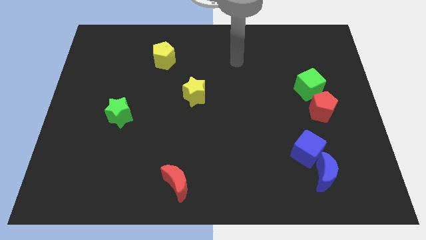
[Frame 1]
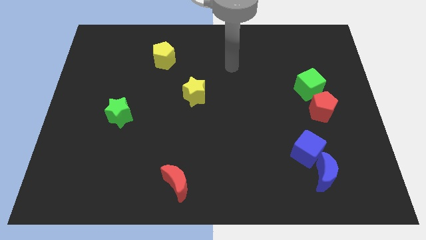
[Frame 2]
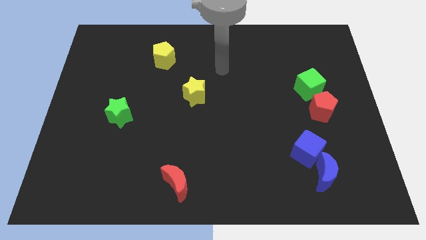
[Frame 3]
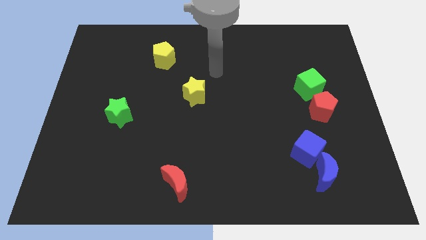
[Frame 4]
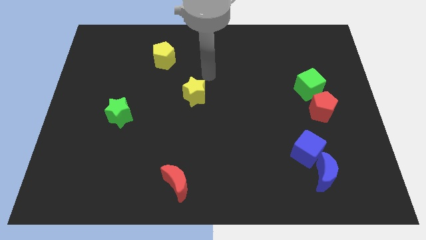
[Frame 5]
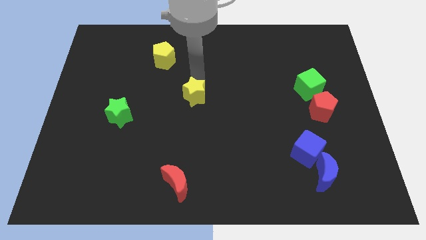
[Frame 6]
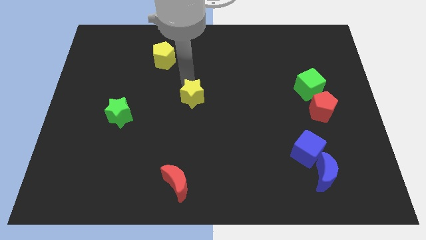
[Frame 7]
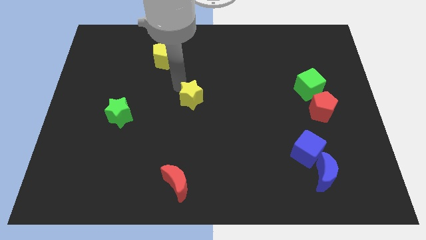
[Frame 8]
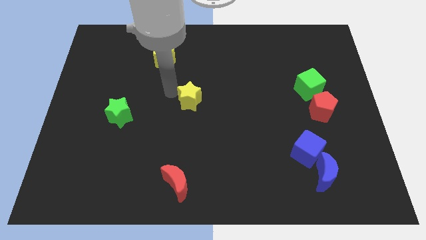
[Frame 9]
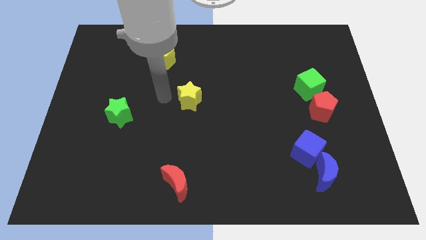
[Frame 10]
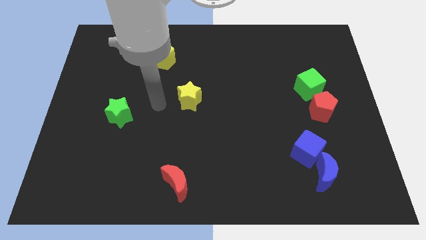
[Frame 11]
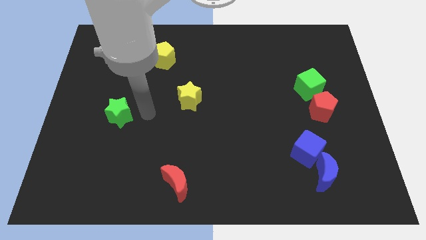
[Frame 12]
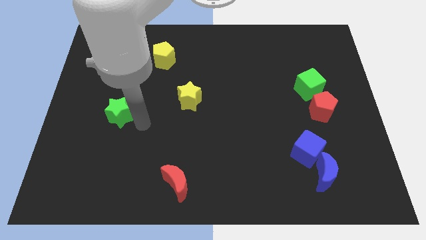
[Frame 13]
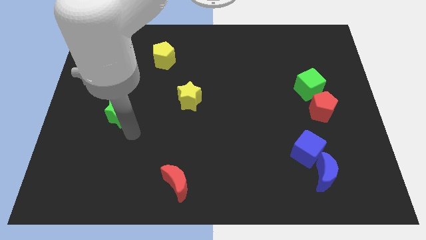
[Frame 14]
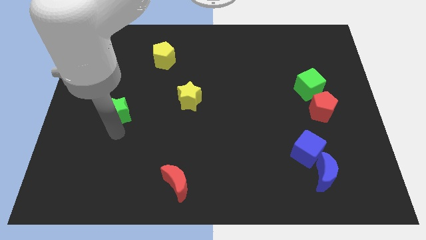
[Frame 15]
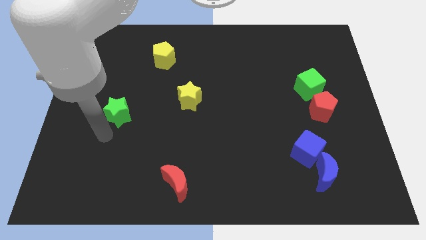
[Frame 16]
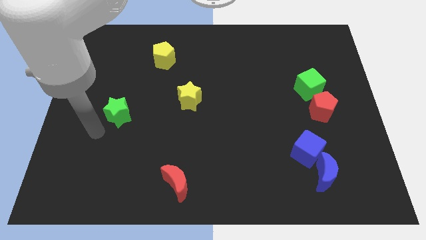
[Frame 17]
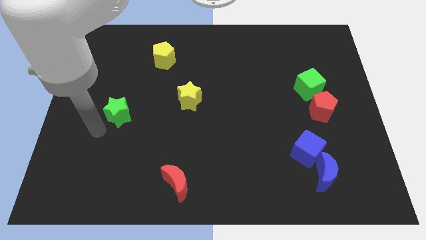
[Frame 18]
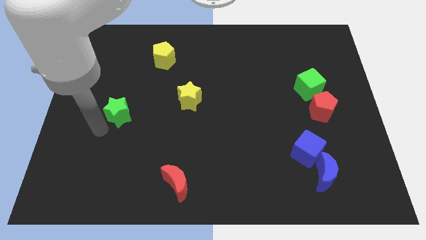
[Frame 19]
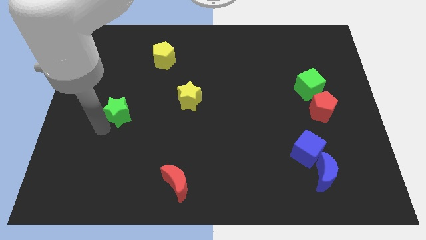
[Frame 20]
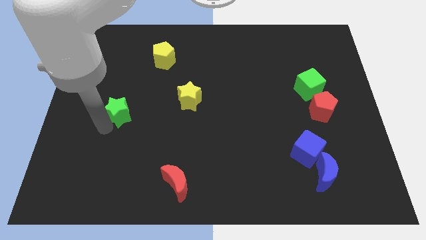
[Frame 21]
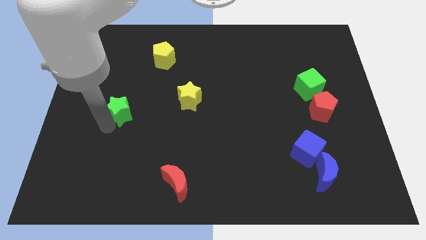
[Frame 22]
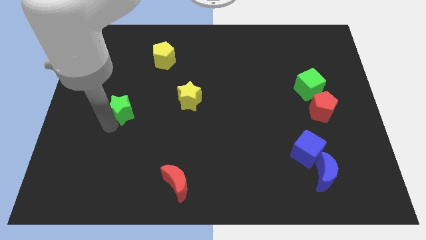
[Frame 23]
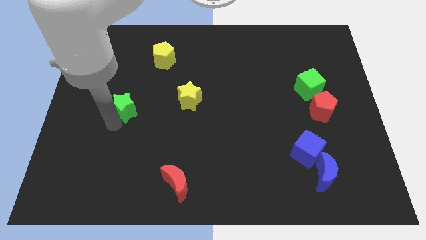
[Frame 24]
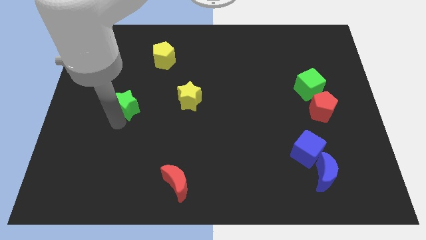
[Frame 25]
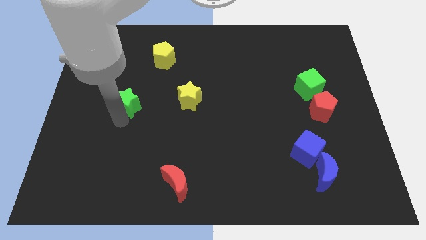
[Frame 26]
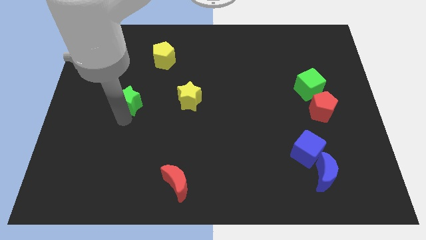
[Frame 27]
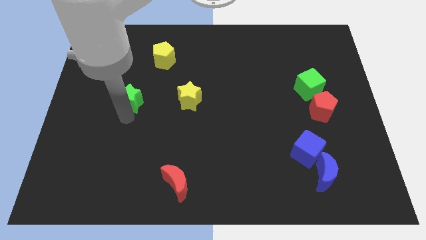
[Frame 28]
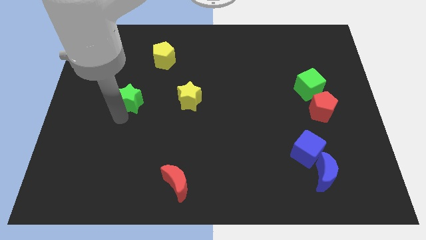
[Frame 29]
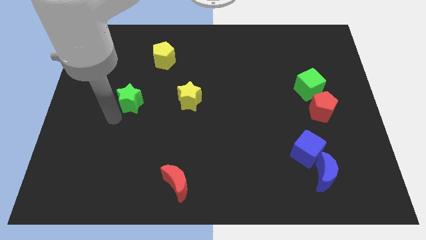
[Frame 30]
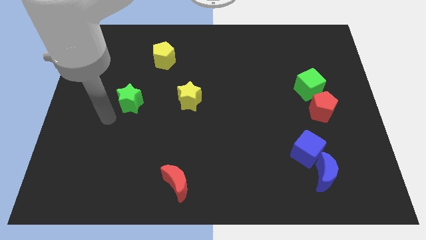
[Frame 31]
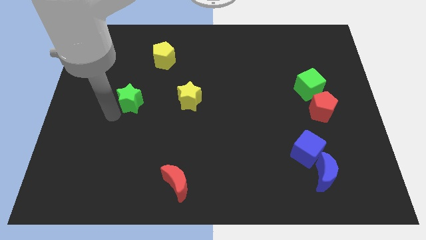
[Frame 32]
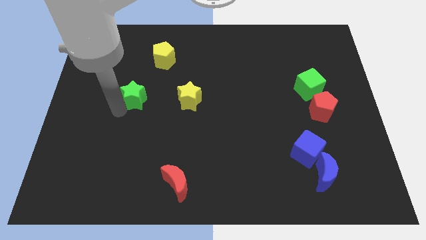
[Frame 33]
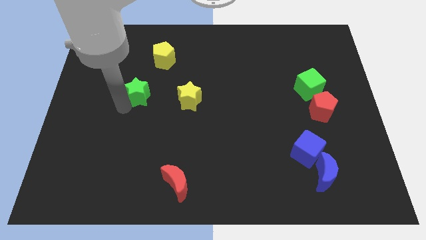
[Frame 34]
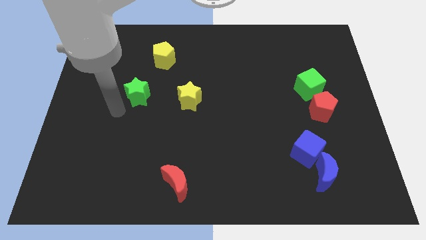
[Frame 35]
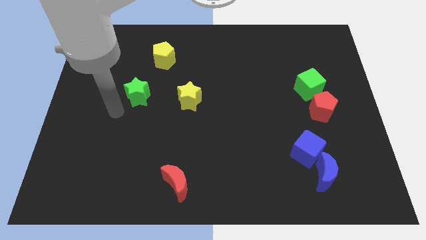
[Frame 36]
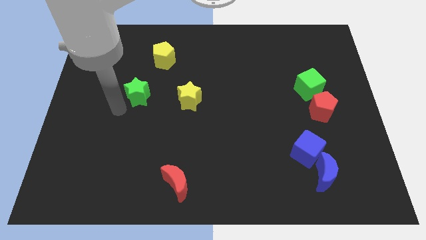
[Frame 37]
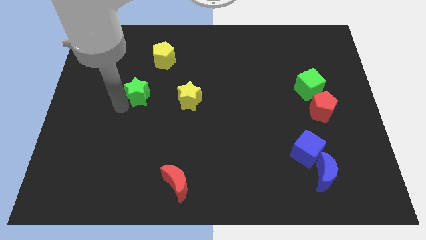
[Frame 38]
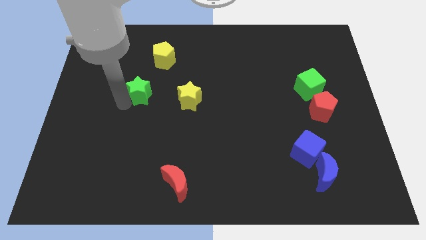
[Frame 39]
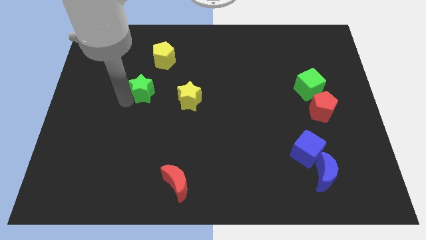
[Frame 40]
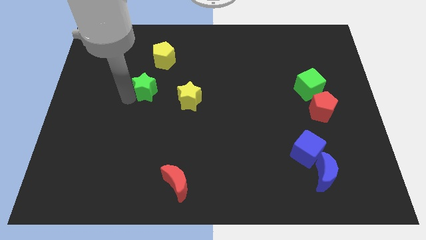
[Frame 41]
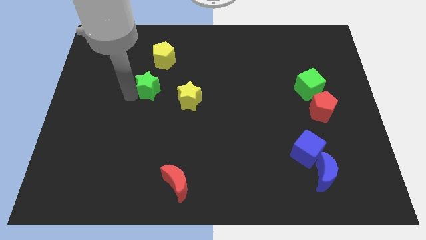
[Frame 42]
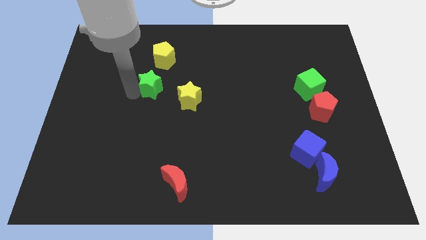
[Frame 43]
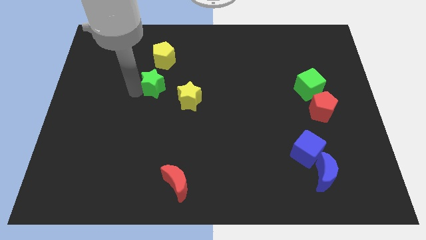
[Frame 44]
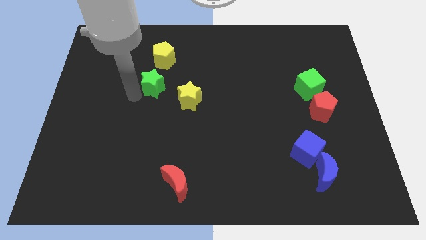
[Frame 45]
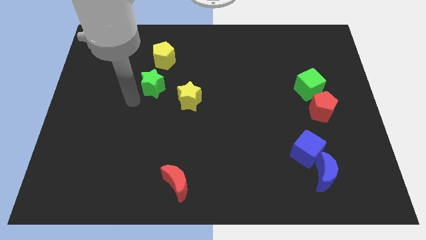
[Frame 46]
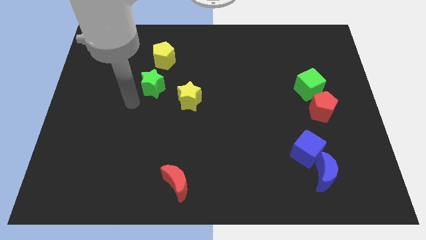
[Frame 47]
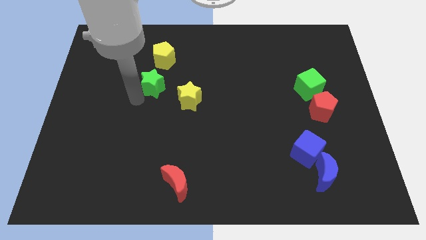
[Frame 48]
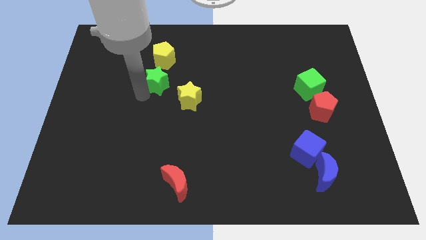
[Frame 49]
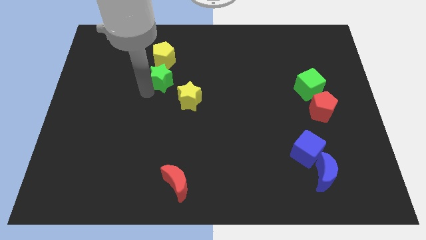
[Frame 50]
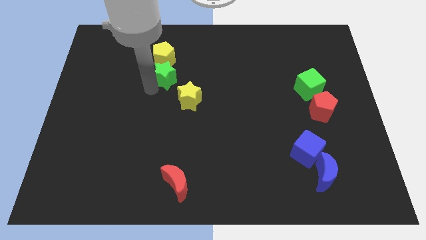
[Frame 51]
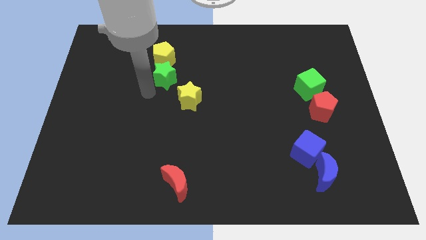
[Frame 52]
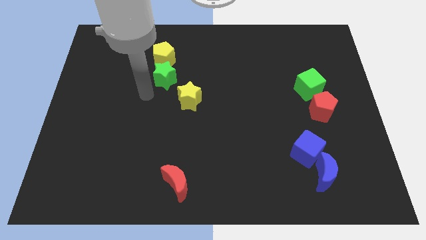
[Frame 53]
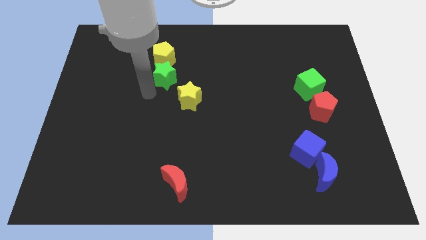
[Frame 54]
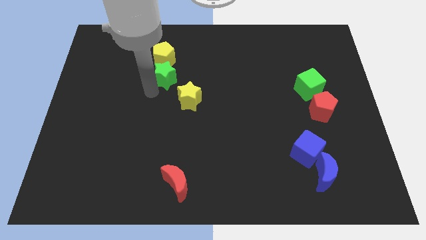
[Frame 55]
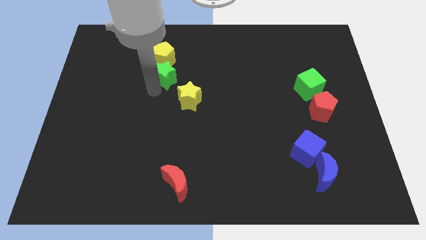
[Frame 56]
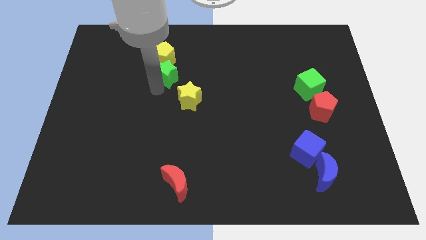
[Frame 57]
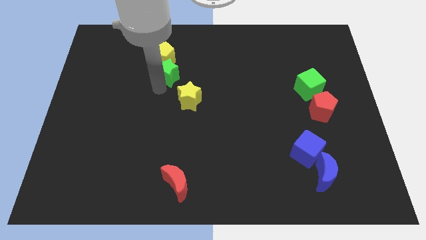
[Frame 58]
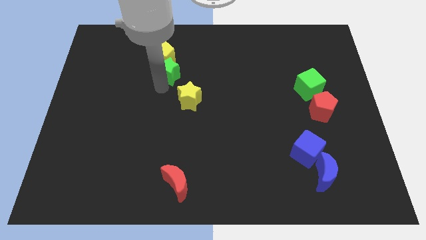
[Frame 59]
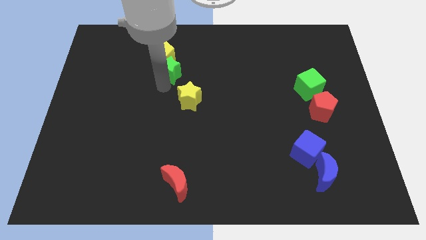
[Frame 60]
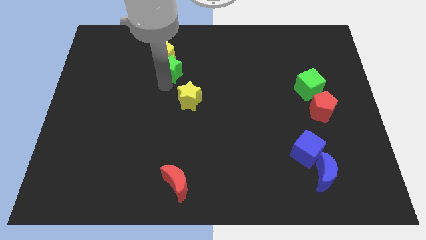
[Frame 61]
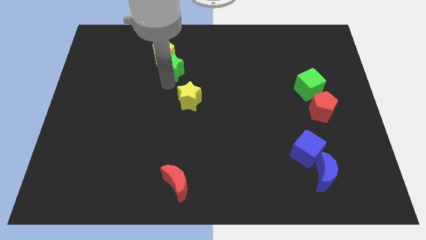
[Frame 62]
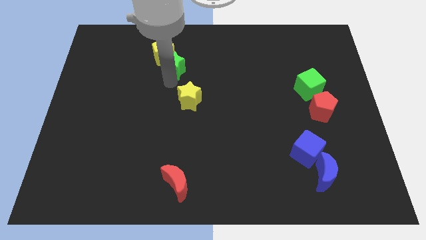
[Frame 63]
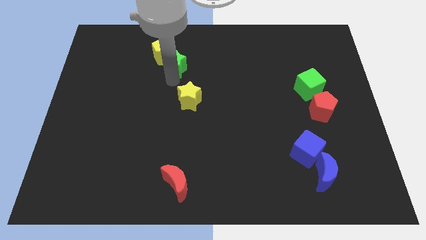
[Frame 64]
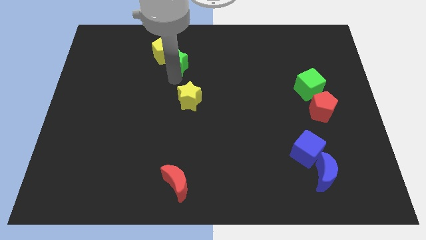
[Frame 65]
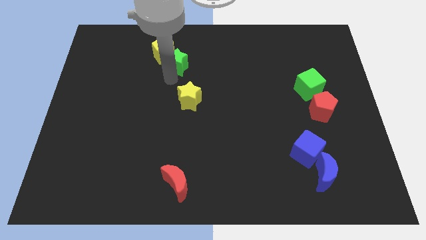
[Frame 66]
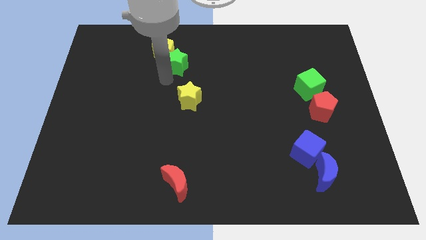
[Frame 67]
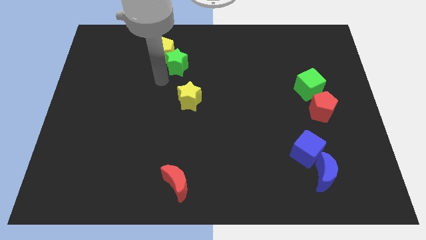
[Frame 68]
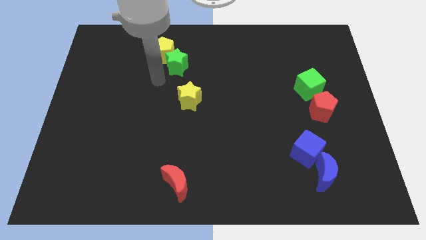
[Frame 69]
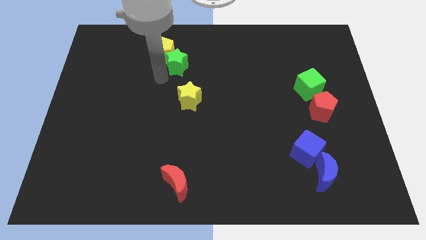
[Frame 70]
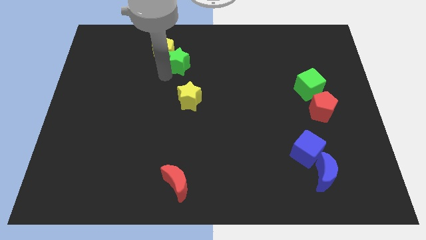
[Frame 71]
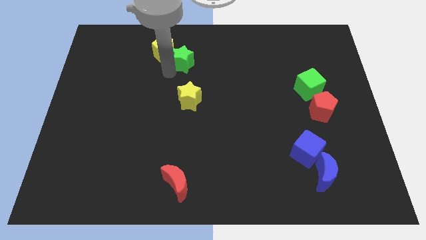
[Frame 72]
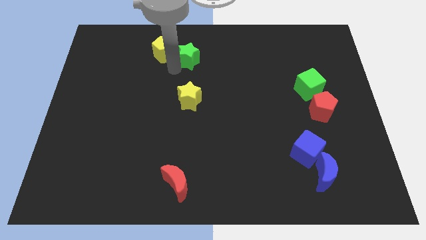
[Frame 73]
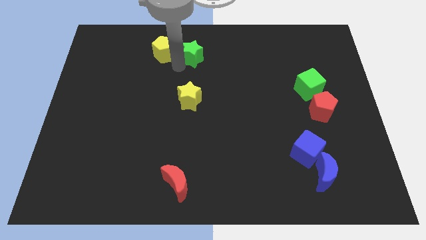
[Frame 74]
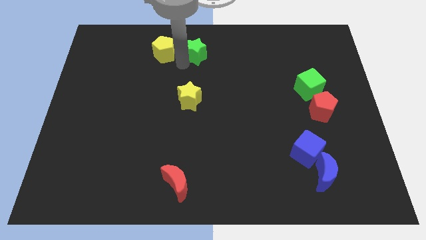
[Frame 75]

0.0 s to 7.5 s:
put the green star to the top side
